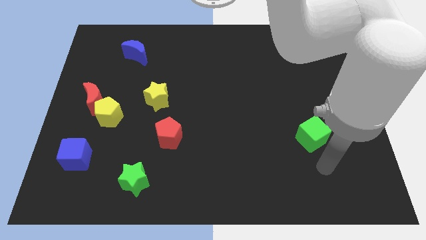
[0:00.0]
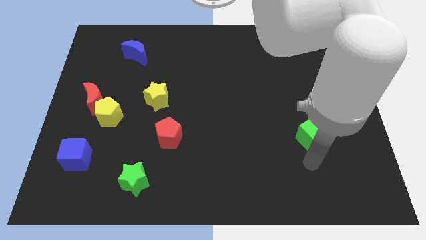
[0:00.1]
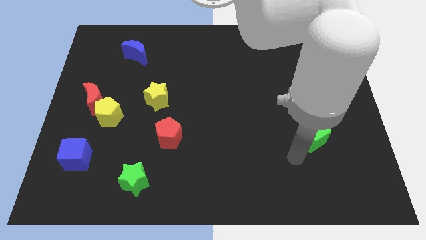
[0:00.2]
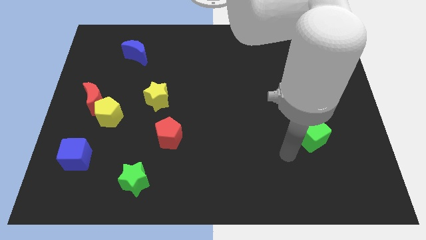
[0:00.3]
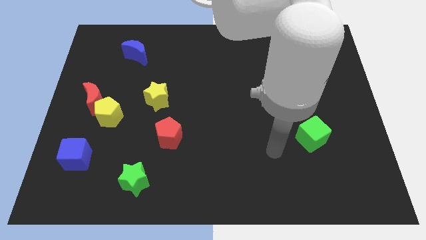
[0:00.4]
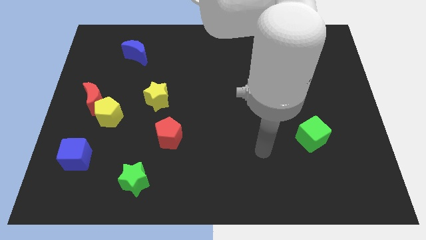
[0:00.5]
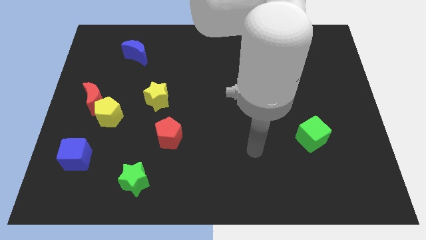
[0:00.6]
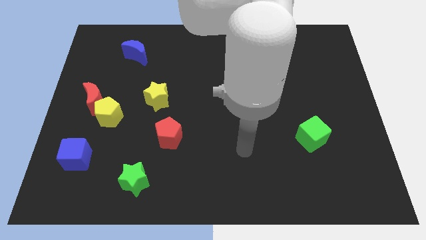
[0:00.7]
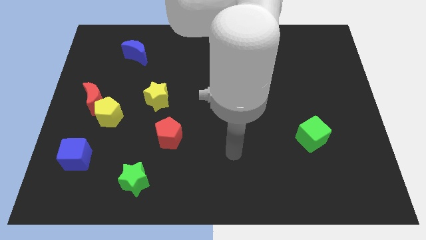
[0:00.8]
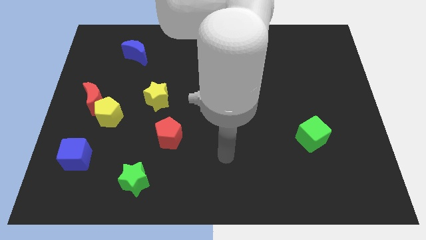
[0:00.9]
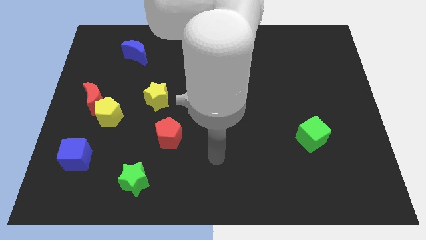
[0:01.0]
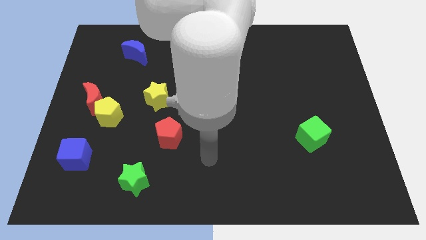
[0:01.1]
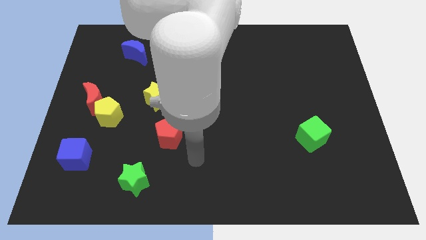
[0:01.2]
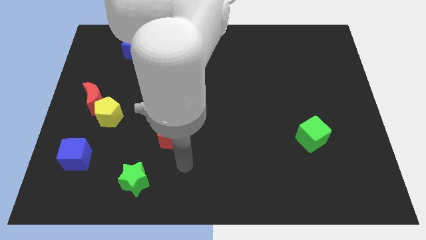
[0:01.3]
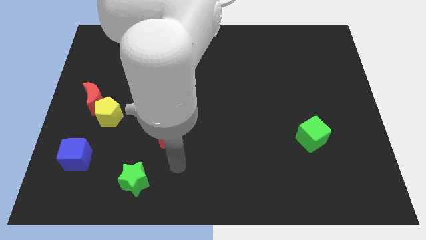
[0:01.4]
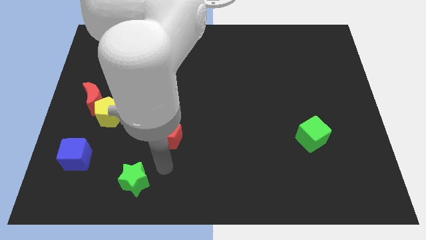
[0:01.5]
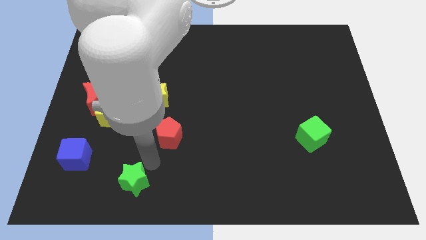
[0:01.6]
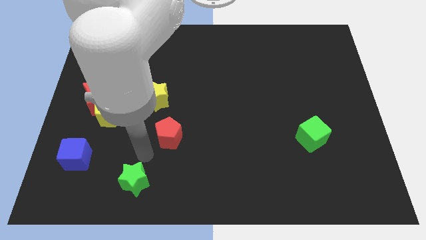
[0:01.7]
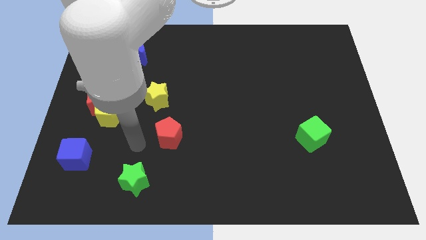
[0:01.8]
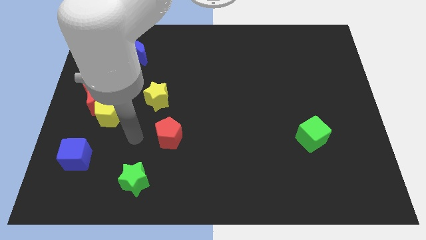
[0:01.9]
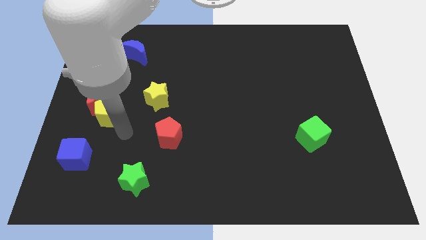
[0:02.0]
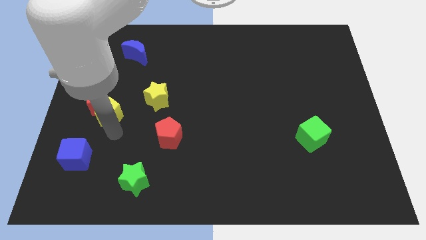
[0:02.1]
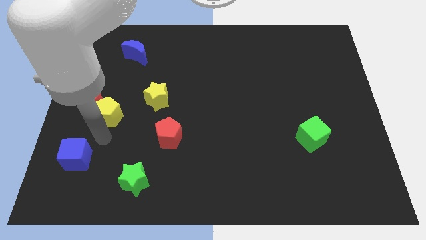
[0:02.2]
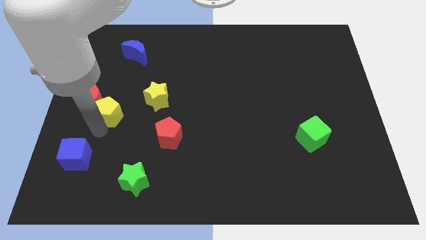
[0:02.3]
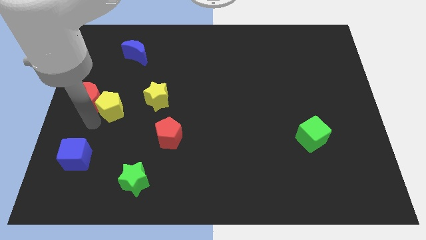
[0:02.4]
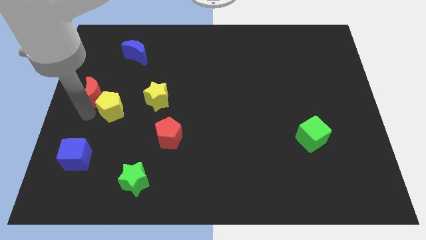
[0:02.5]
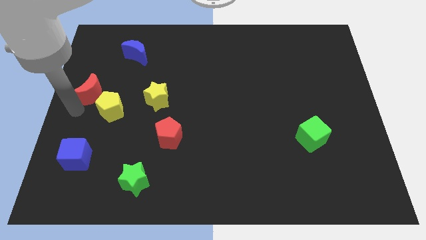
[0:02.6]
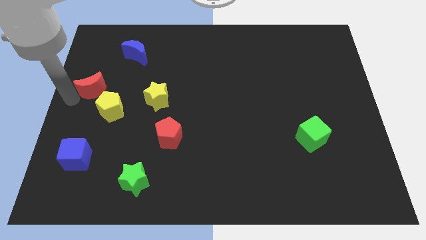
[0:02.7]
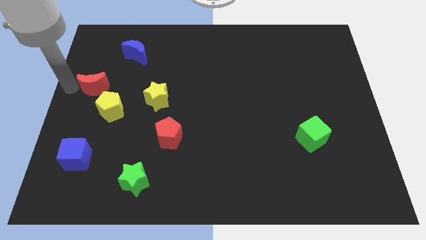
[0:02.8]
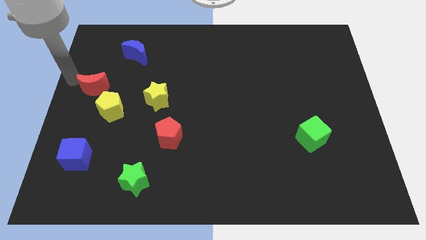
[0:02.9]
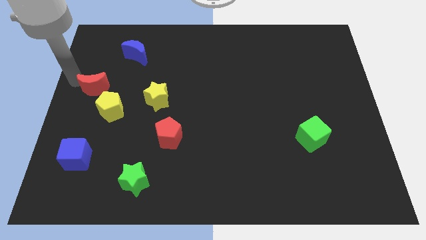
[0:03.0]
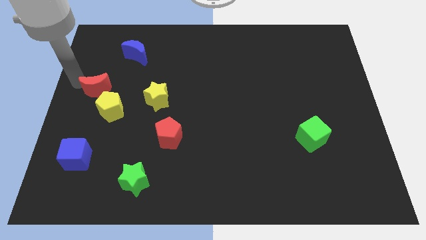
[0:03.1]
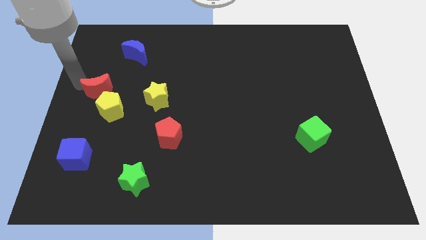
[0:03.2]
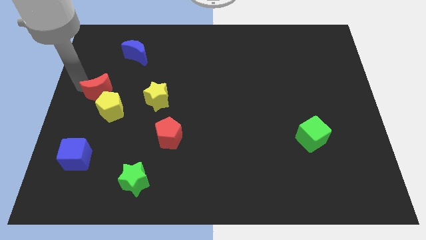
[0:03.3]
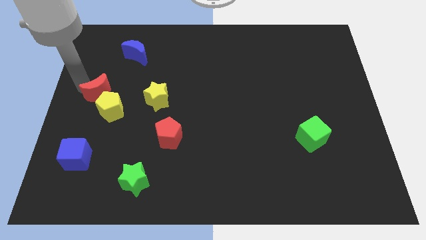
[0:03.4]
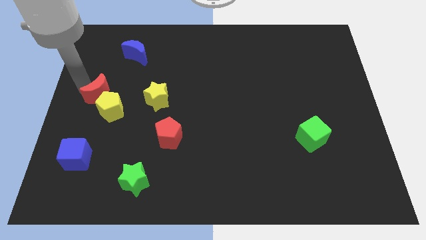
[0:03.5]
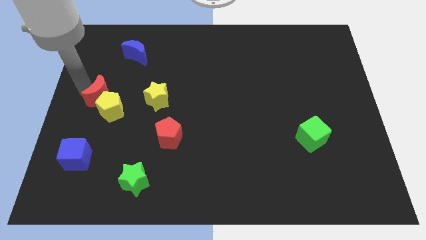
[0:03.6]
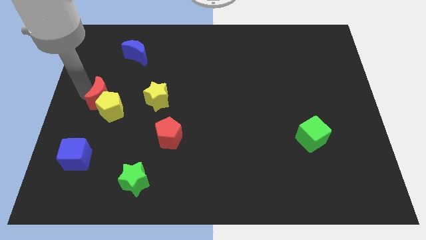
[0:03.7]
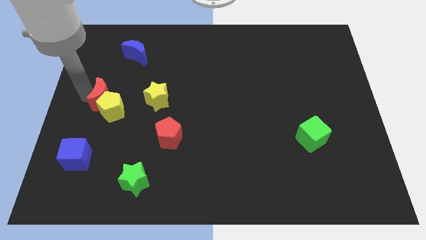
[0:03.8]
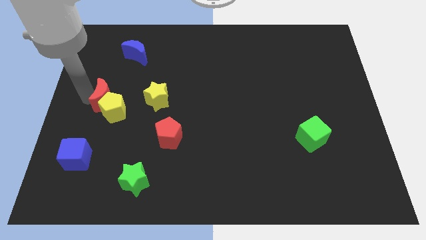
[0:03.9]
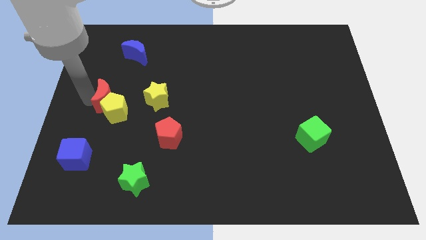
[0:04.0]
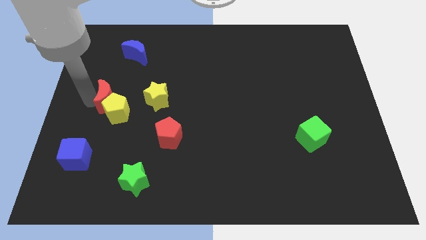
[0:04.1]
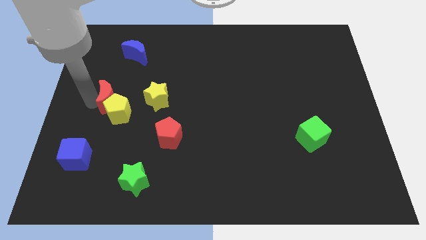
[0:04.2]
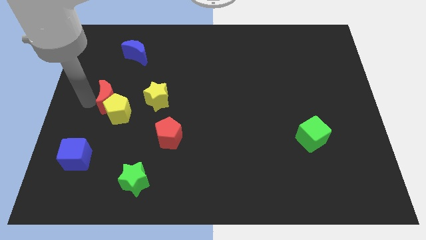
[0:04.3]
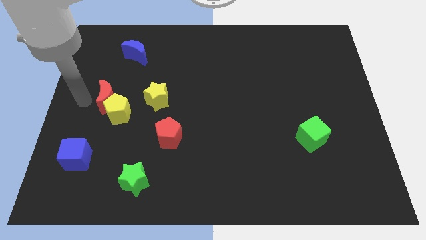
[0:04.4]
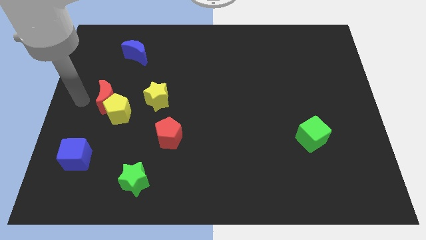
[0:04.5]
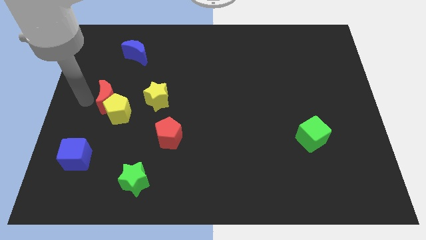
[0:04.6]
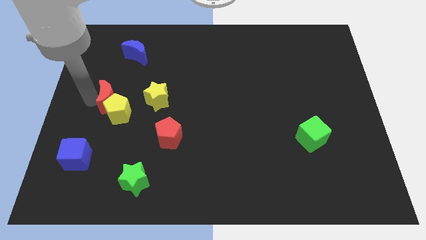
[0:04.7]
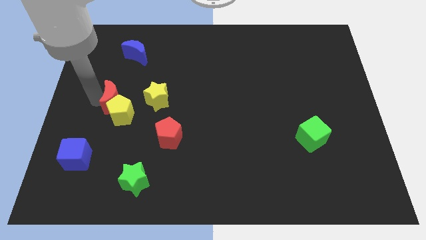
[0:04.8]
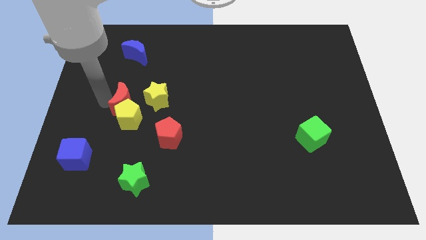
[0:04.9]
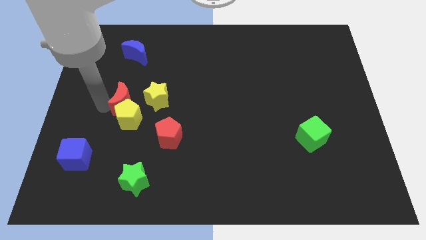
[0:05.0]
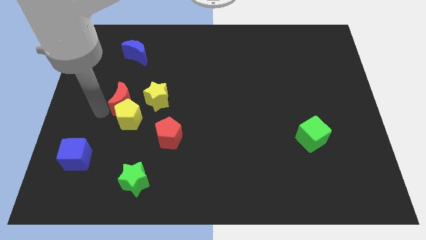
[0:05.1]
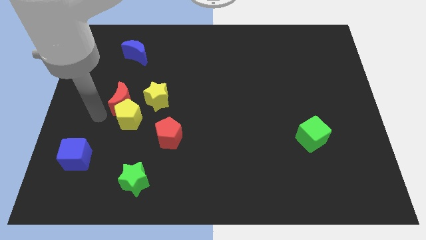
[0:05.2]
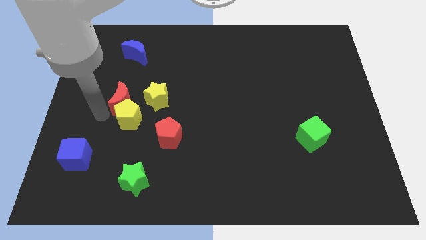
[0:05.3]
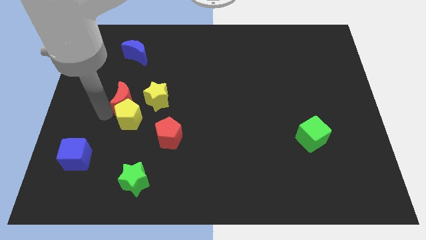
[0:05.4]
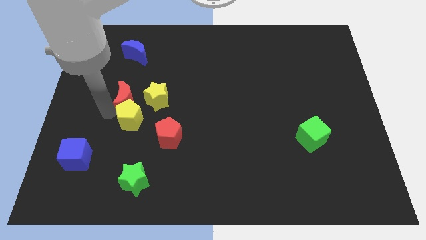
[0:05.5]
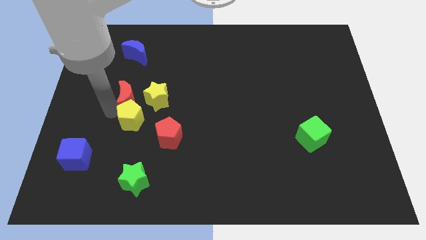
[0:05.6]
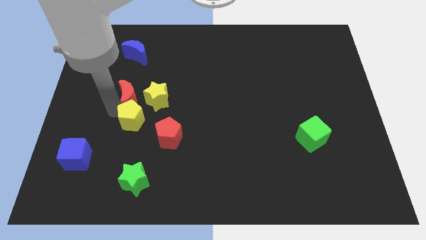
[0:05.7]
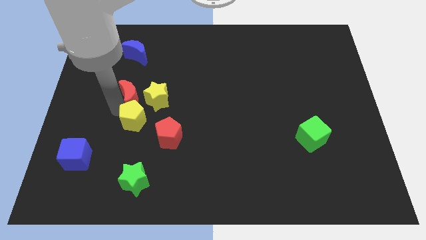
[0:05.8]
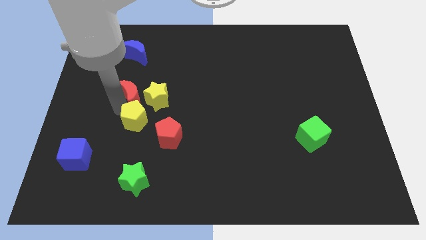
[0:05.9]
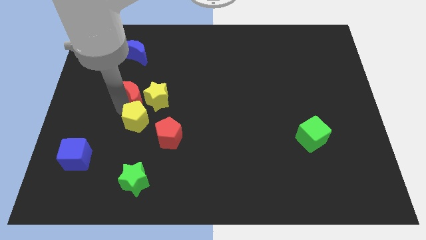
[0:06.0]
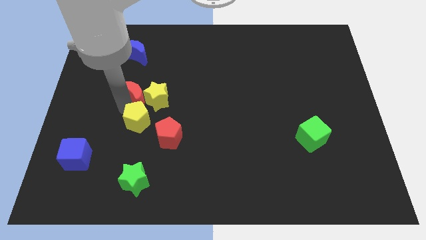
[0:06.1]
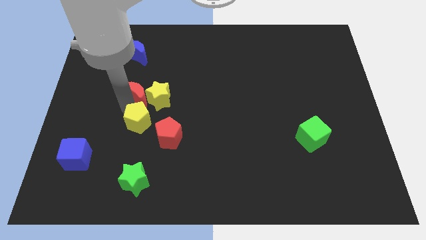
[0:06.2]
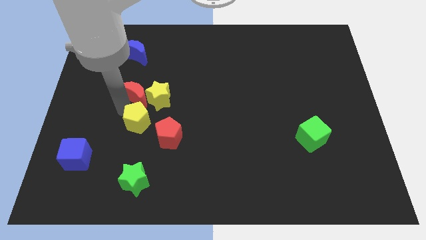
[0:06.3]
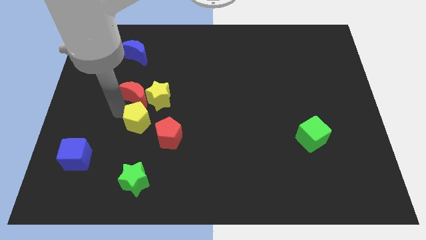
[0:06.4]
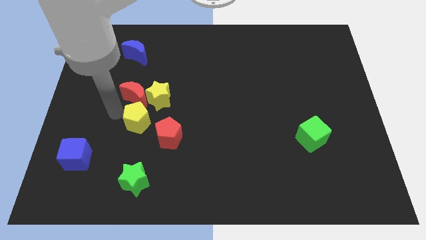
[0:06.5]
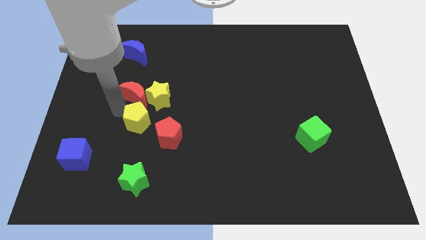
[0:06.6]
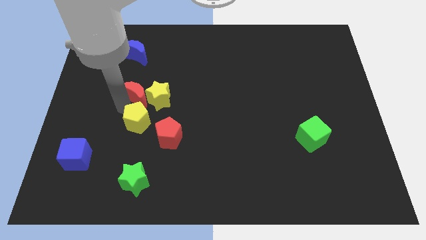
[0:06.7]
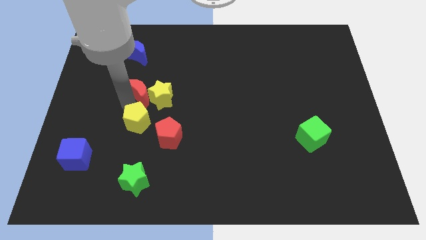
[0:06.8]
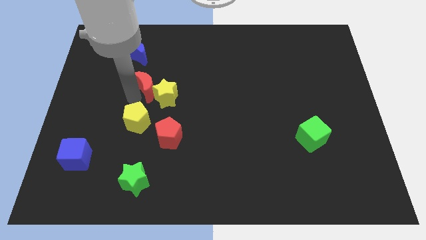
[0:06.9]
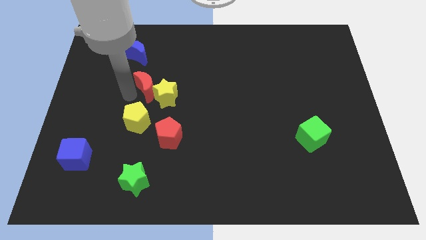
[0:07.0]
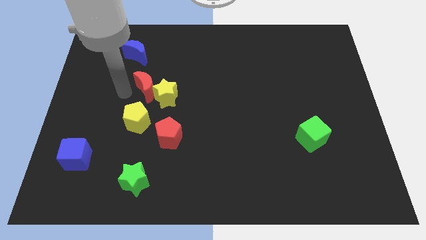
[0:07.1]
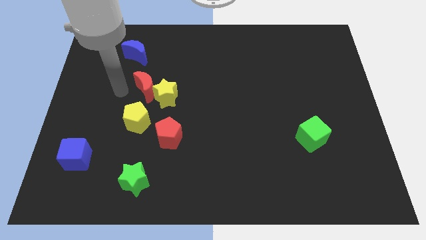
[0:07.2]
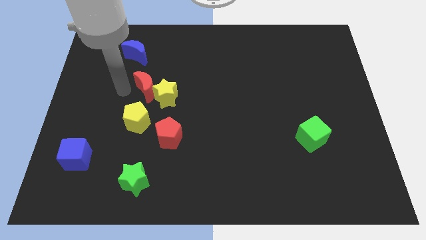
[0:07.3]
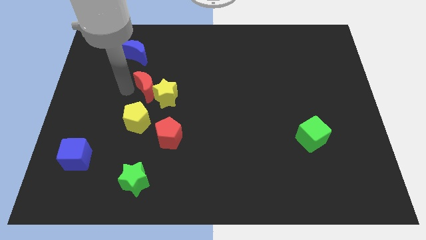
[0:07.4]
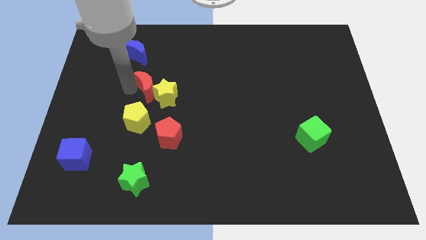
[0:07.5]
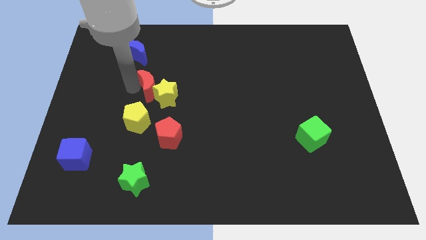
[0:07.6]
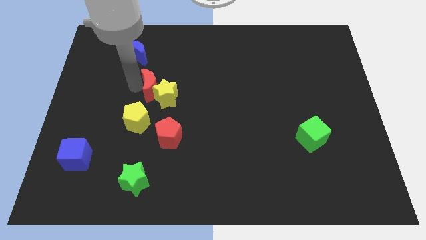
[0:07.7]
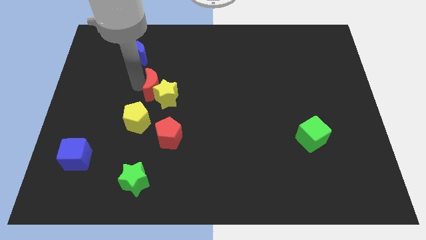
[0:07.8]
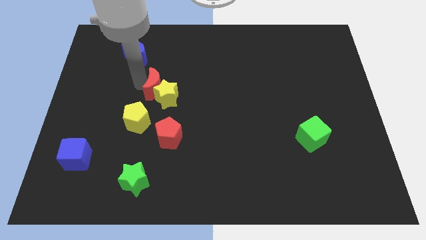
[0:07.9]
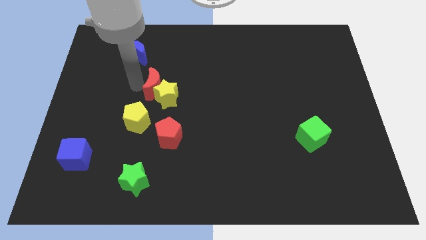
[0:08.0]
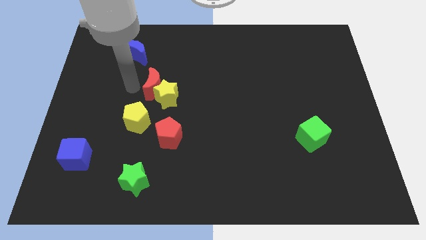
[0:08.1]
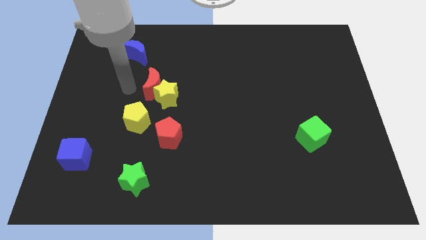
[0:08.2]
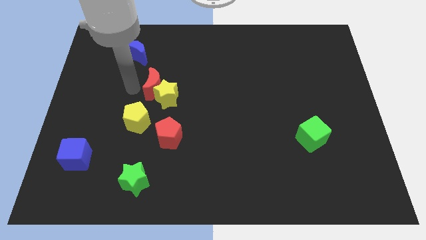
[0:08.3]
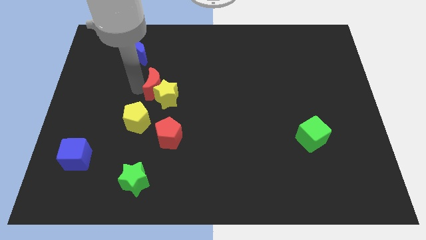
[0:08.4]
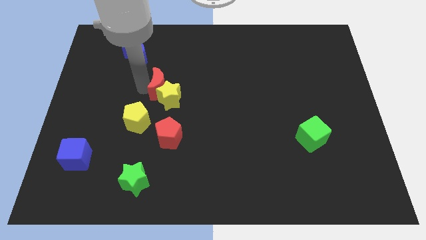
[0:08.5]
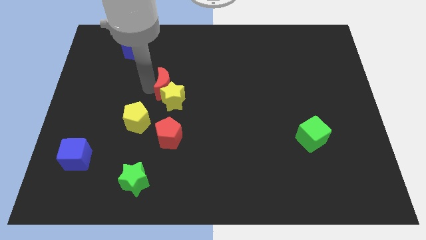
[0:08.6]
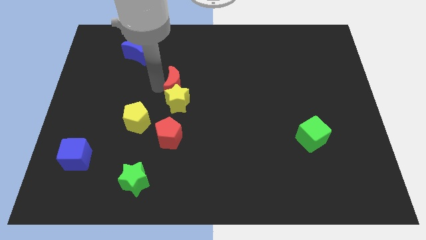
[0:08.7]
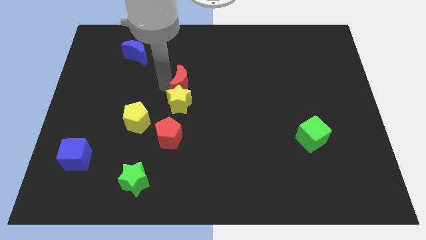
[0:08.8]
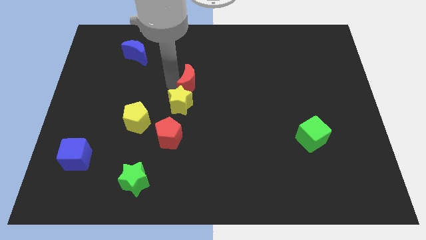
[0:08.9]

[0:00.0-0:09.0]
push the red moon right
